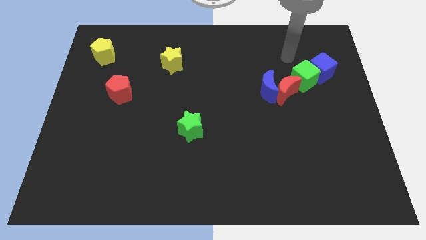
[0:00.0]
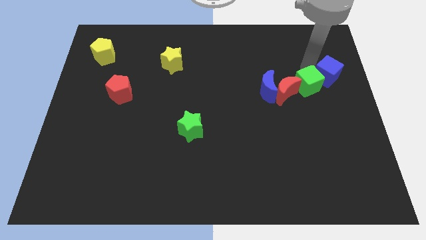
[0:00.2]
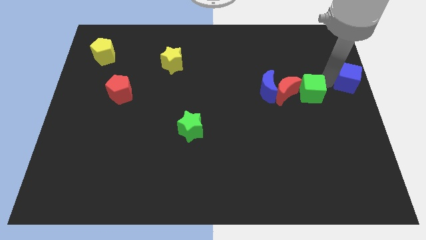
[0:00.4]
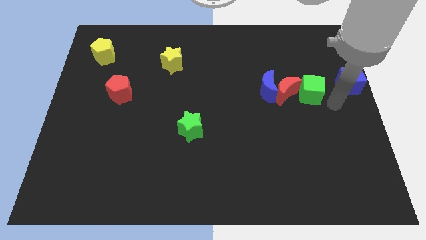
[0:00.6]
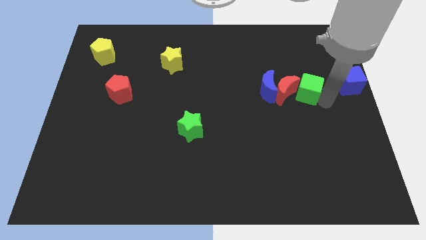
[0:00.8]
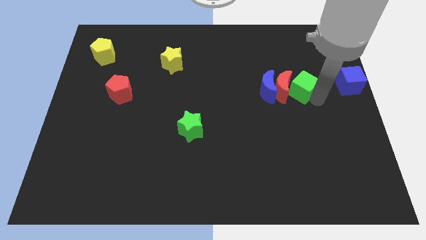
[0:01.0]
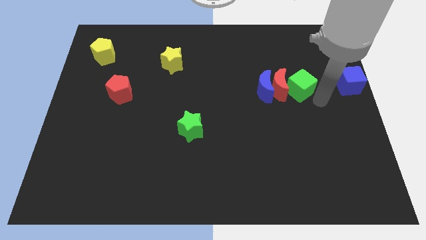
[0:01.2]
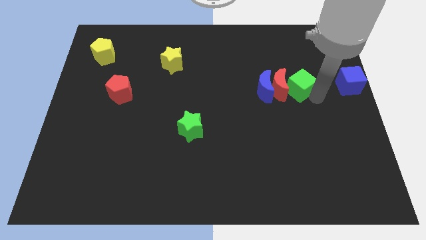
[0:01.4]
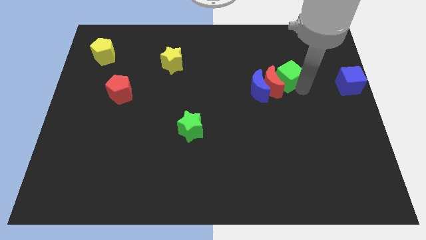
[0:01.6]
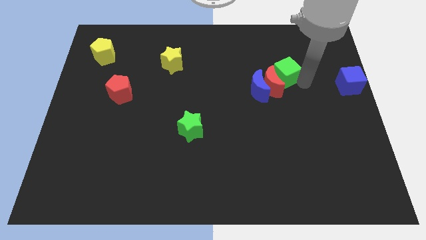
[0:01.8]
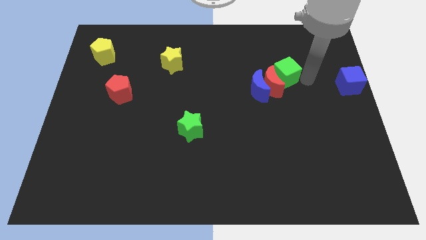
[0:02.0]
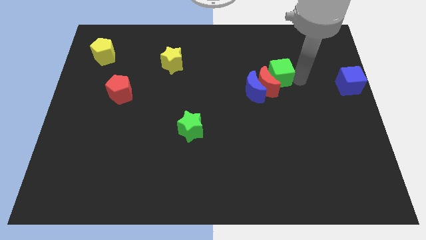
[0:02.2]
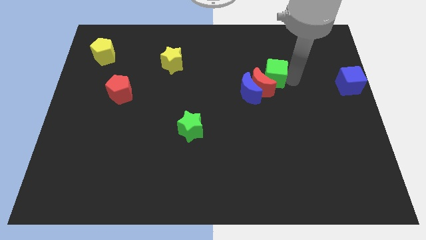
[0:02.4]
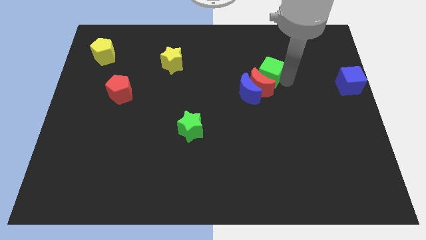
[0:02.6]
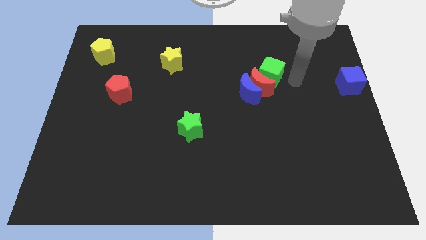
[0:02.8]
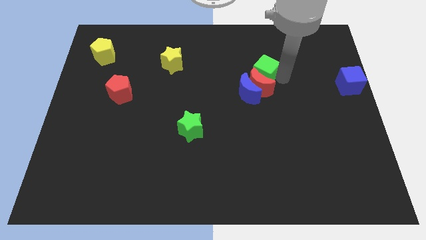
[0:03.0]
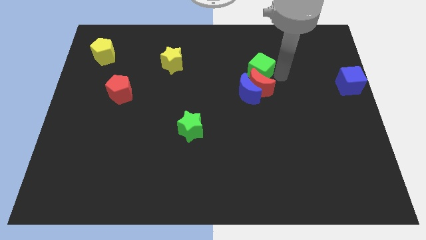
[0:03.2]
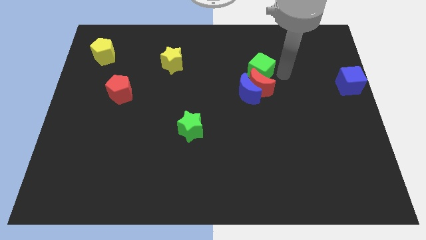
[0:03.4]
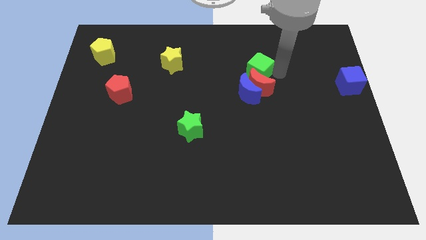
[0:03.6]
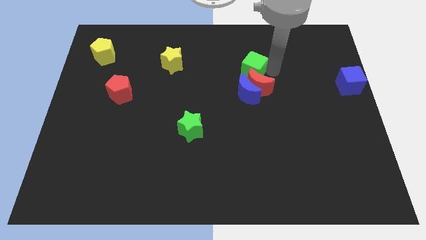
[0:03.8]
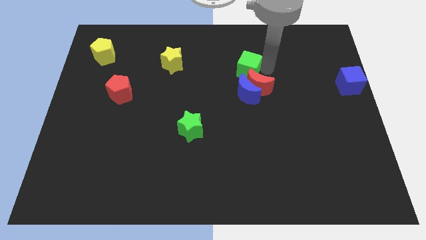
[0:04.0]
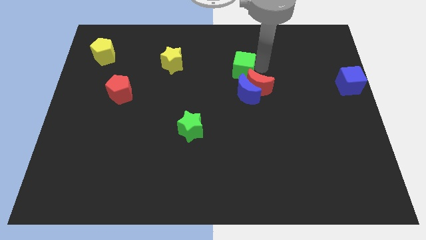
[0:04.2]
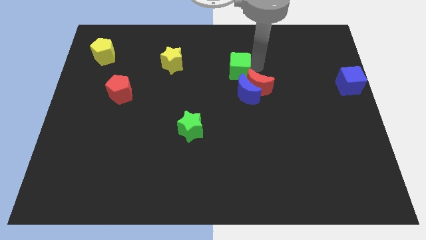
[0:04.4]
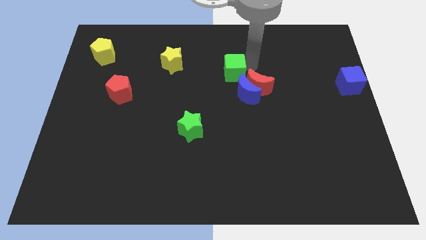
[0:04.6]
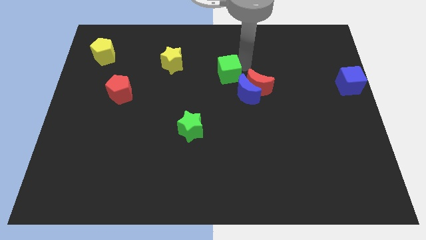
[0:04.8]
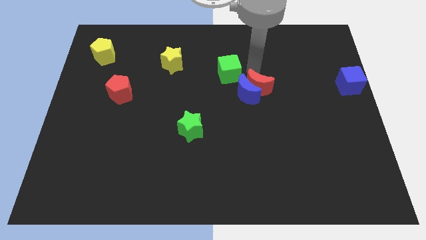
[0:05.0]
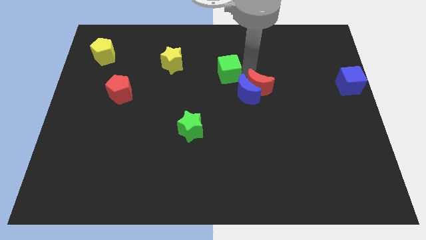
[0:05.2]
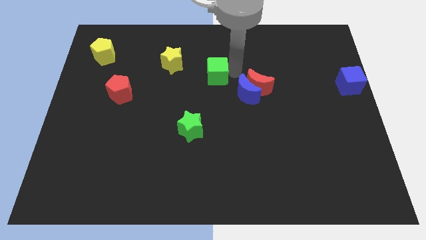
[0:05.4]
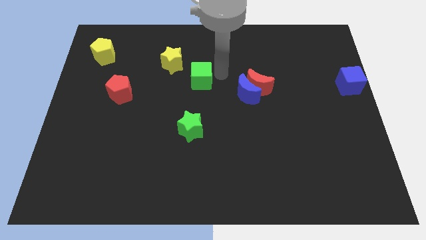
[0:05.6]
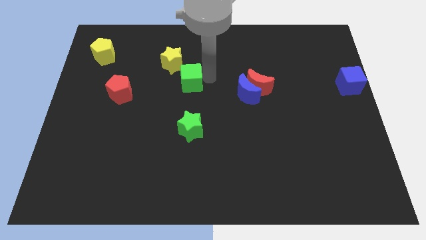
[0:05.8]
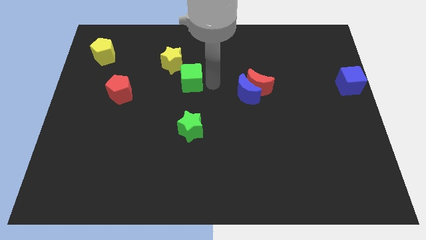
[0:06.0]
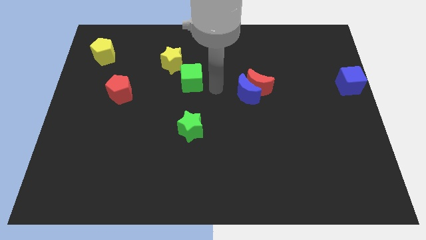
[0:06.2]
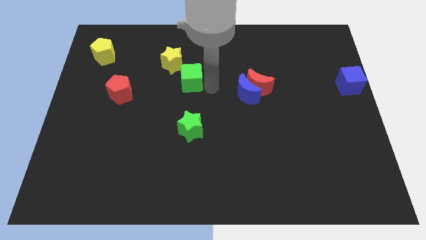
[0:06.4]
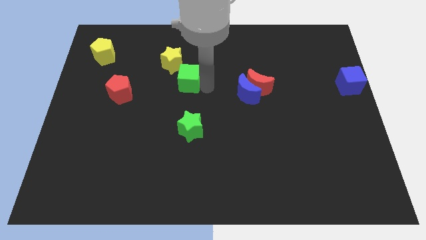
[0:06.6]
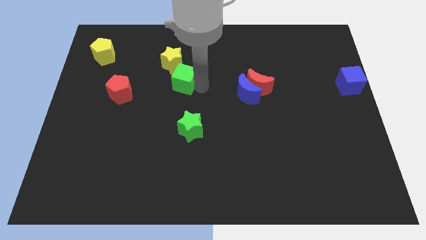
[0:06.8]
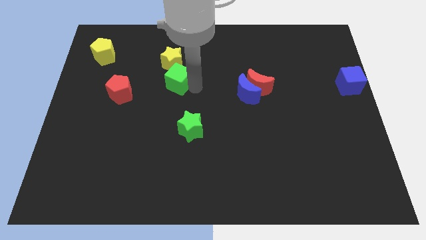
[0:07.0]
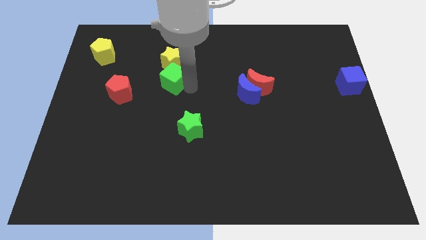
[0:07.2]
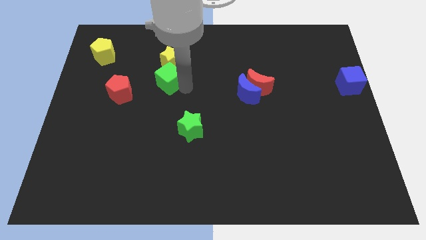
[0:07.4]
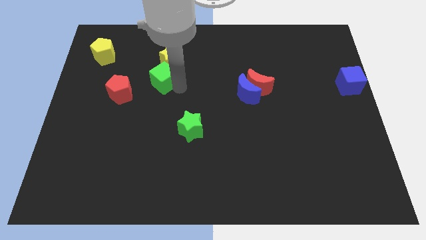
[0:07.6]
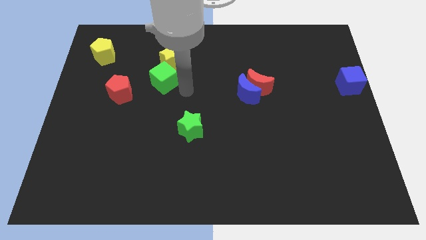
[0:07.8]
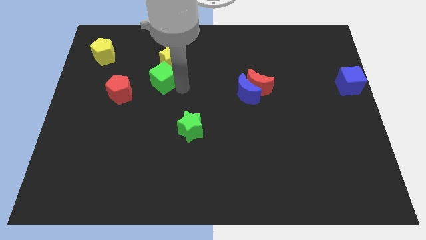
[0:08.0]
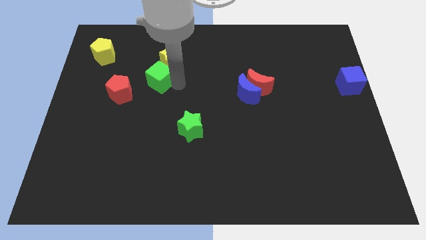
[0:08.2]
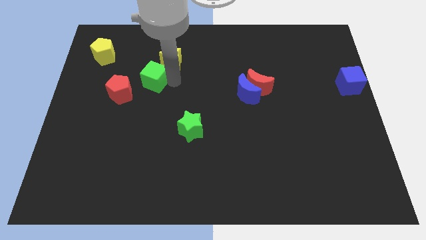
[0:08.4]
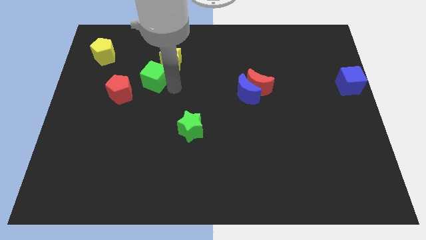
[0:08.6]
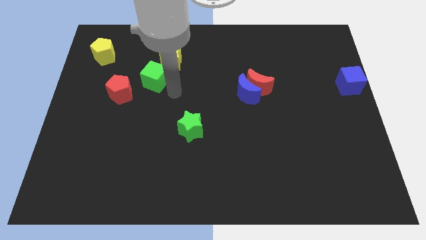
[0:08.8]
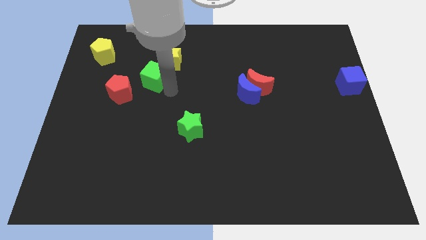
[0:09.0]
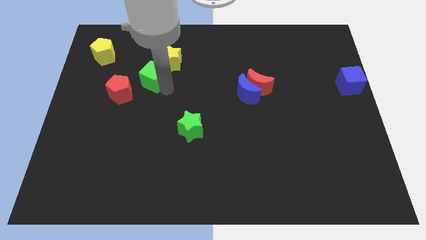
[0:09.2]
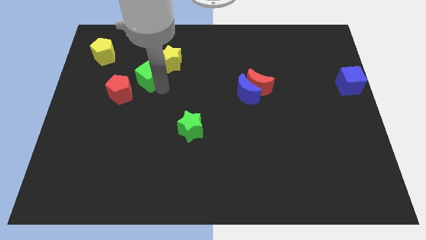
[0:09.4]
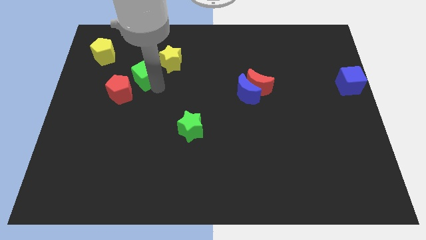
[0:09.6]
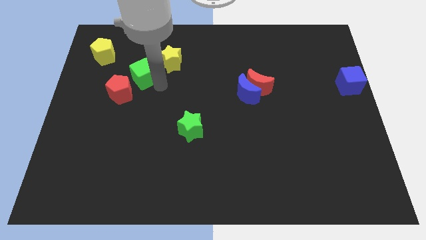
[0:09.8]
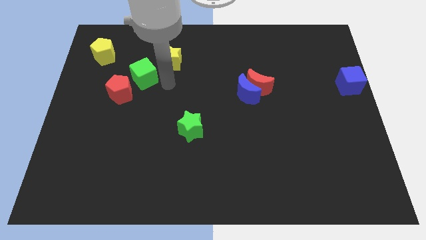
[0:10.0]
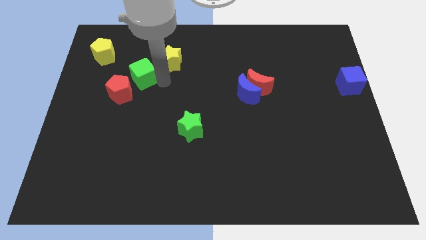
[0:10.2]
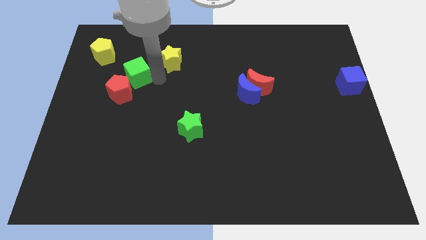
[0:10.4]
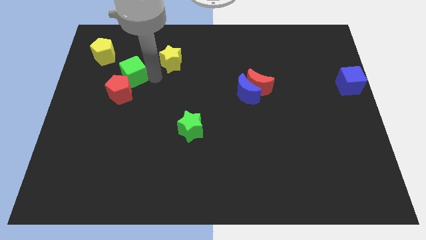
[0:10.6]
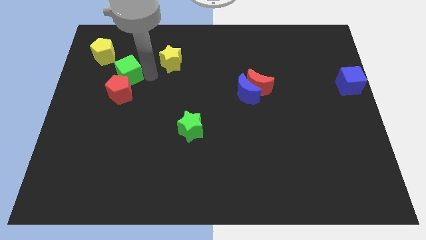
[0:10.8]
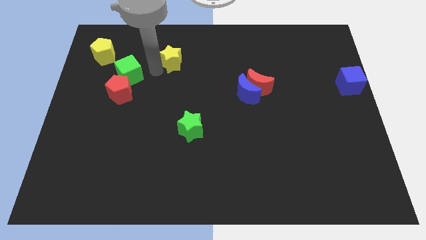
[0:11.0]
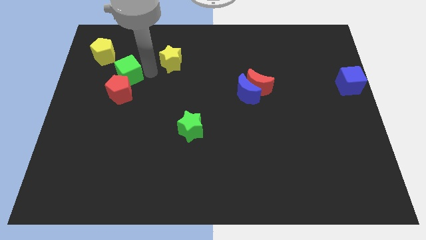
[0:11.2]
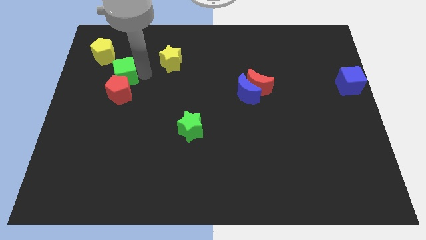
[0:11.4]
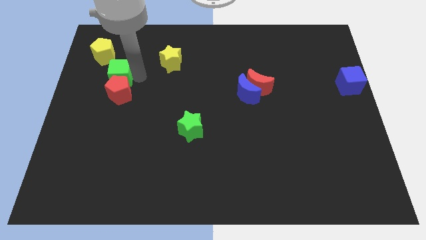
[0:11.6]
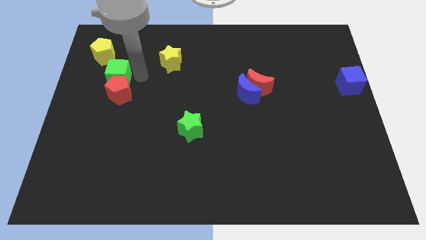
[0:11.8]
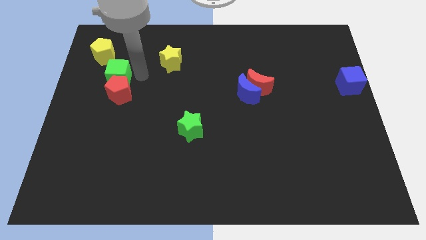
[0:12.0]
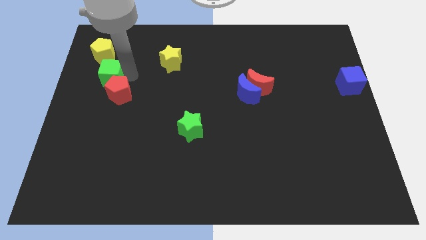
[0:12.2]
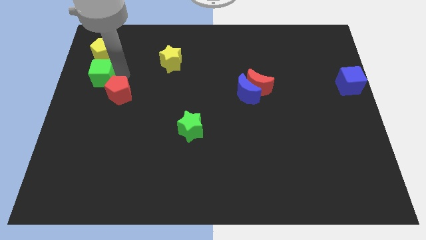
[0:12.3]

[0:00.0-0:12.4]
move the green cube to the left side of the board

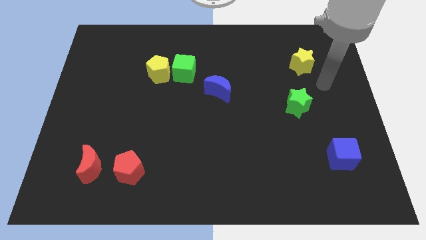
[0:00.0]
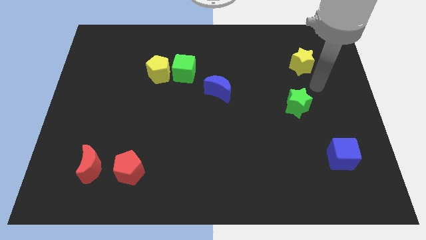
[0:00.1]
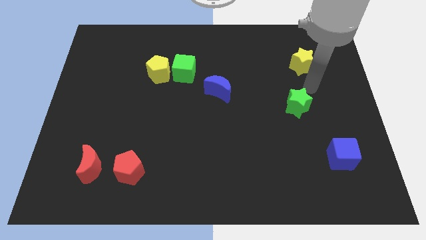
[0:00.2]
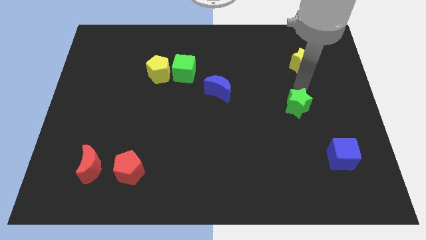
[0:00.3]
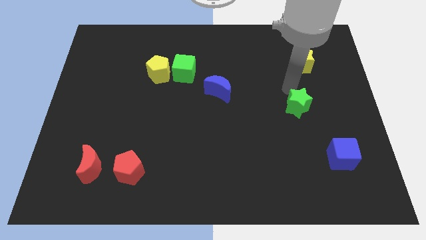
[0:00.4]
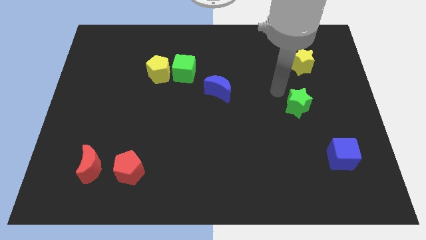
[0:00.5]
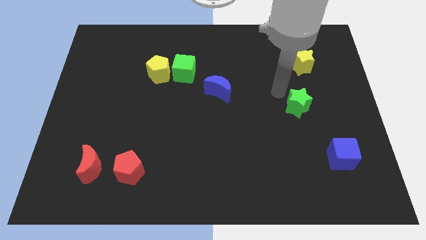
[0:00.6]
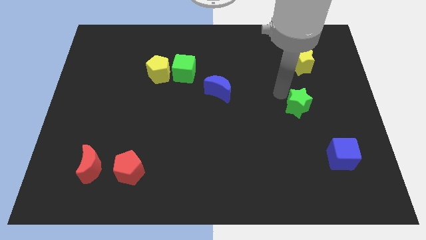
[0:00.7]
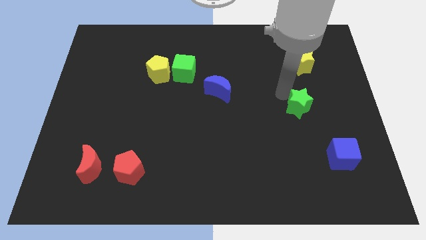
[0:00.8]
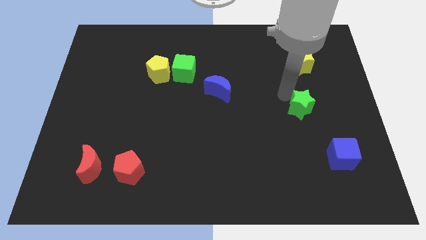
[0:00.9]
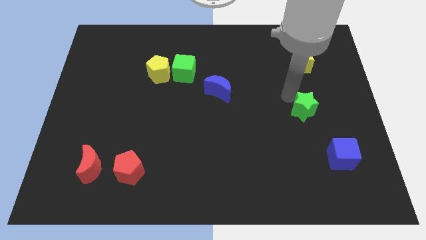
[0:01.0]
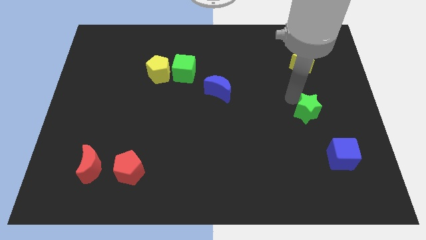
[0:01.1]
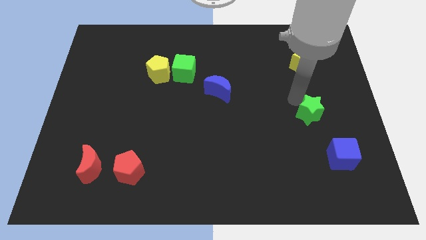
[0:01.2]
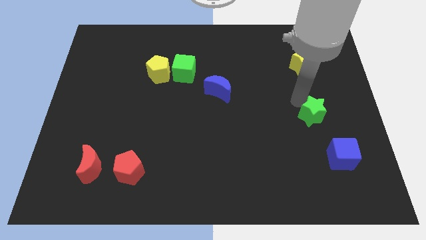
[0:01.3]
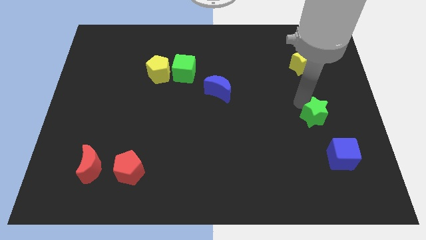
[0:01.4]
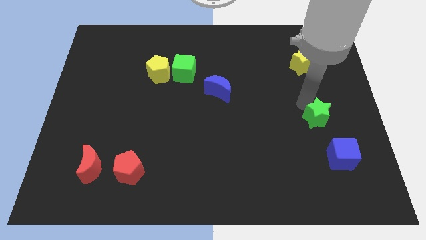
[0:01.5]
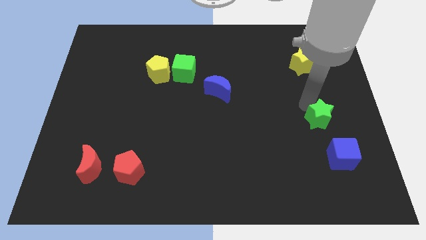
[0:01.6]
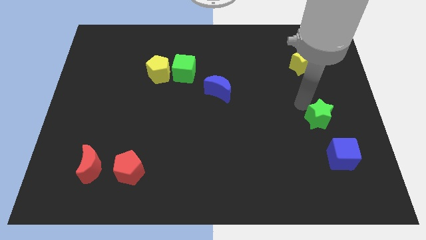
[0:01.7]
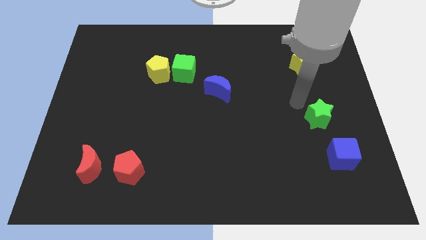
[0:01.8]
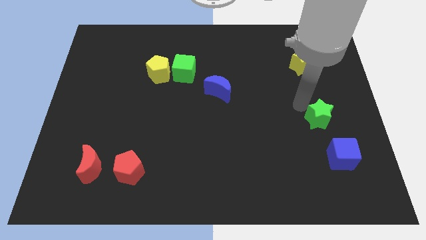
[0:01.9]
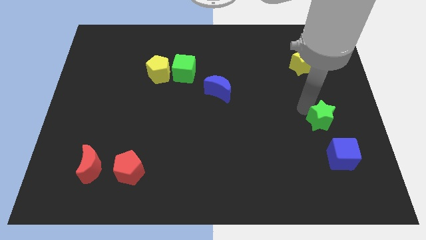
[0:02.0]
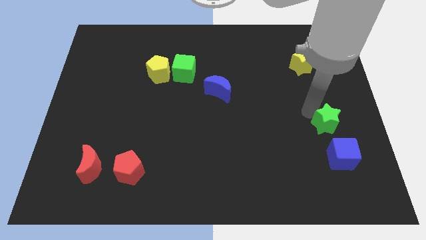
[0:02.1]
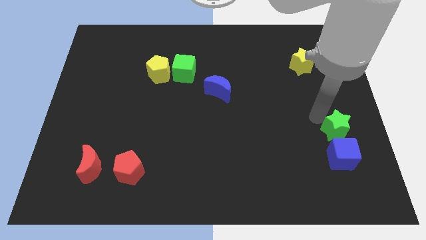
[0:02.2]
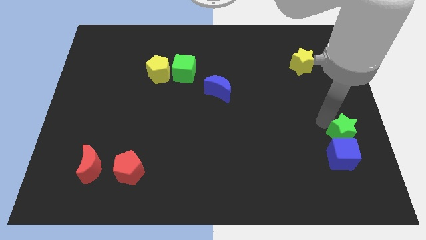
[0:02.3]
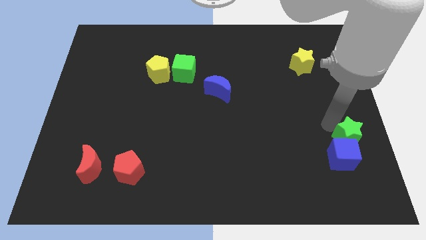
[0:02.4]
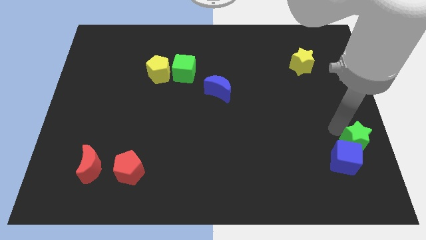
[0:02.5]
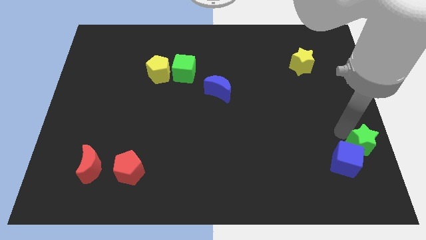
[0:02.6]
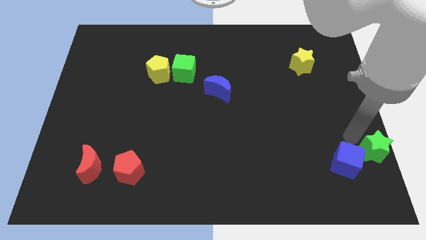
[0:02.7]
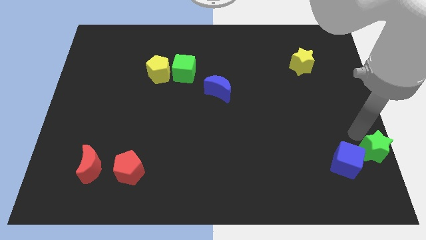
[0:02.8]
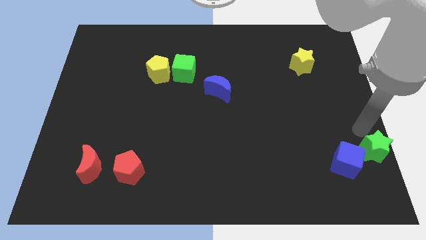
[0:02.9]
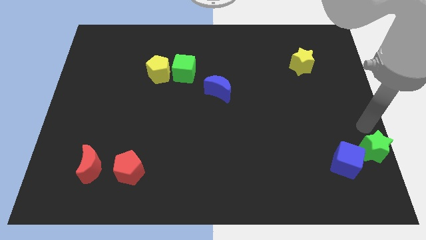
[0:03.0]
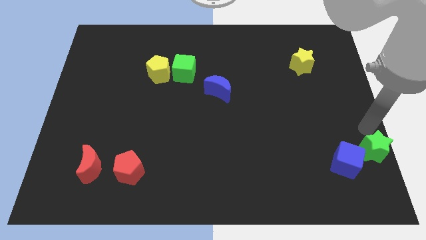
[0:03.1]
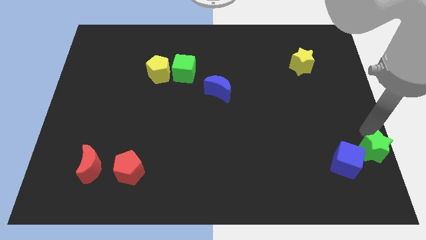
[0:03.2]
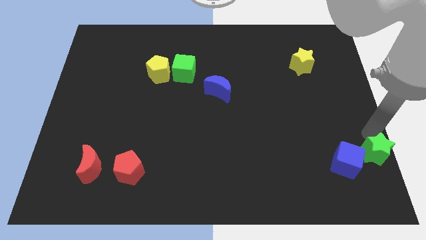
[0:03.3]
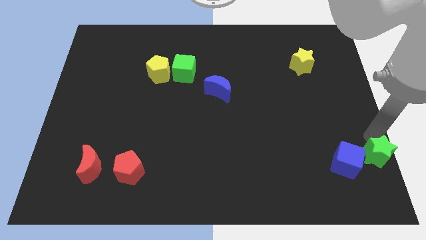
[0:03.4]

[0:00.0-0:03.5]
move the green star to the lower right corner
